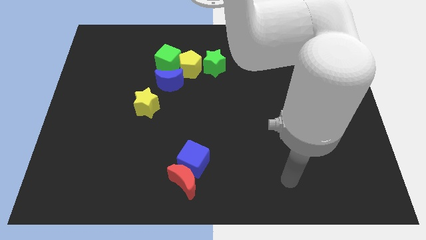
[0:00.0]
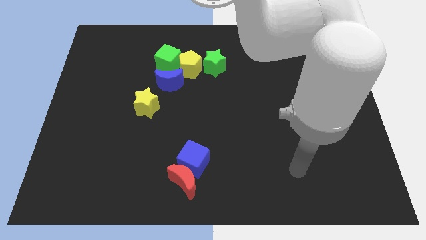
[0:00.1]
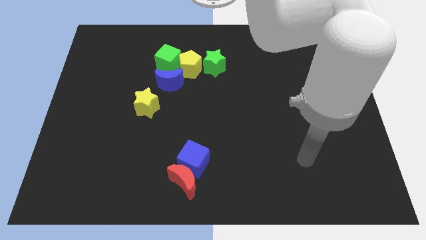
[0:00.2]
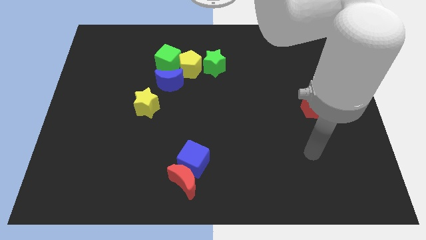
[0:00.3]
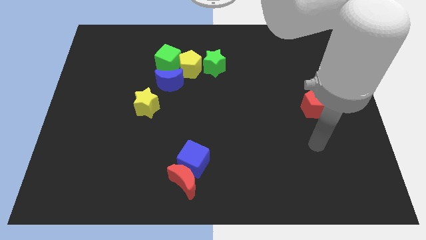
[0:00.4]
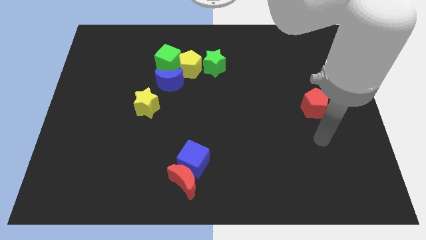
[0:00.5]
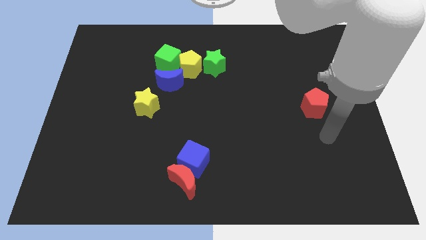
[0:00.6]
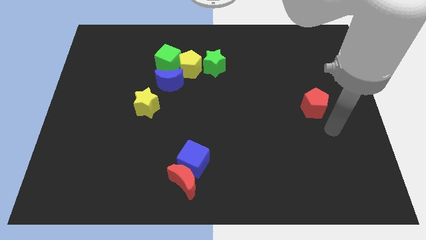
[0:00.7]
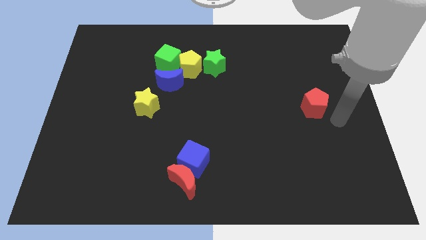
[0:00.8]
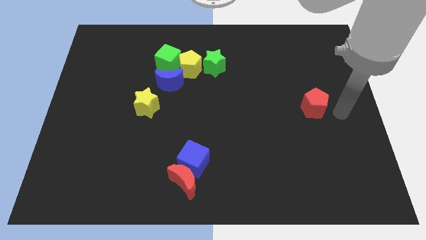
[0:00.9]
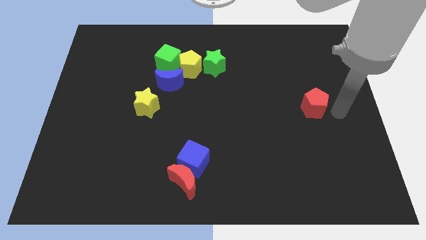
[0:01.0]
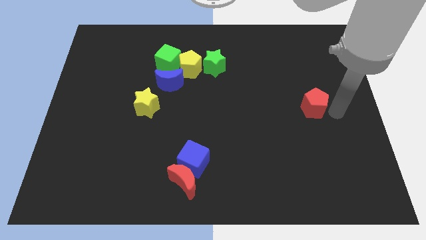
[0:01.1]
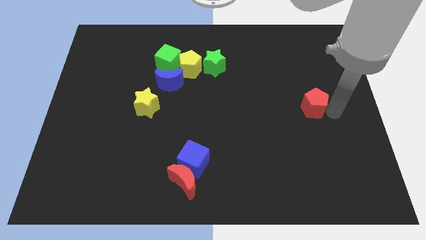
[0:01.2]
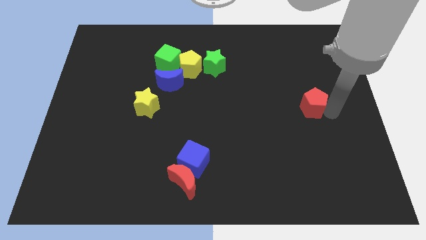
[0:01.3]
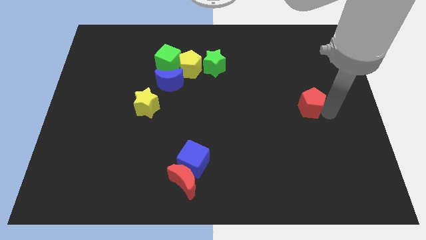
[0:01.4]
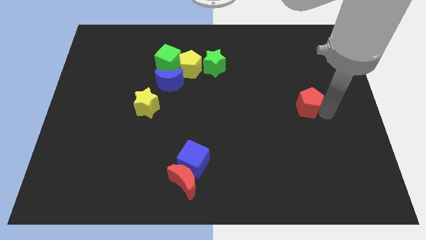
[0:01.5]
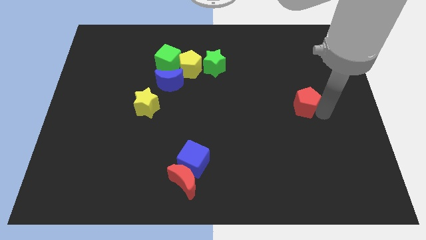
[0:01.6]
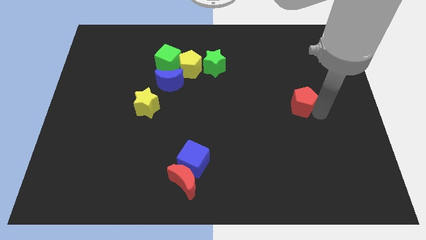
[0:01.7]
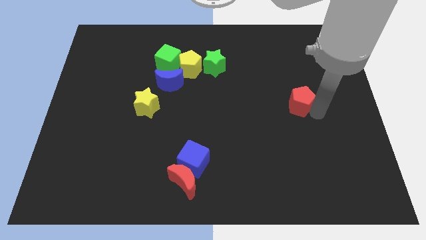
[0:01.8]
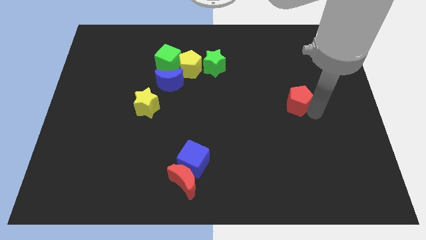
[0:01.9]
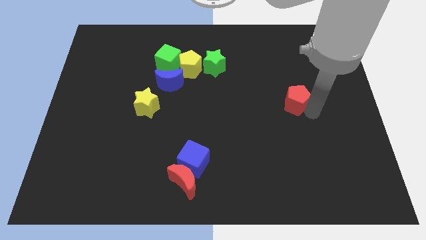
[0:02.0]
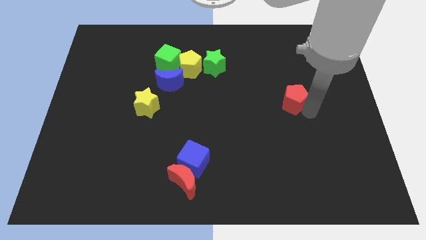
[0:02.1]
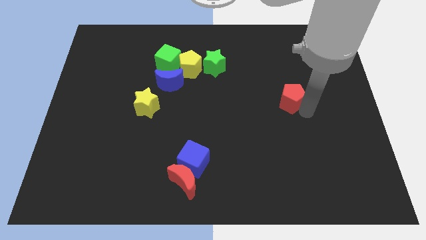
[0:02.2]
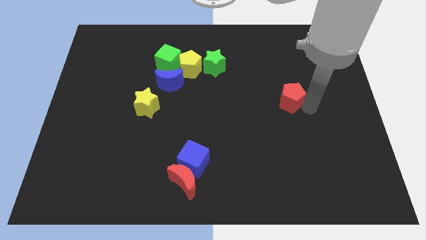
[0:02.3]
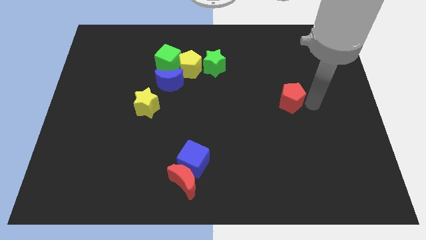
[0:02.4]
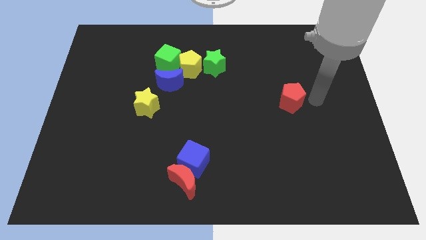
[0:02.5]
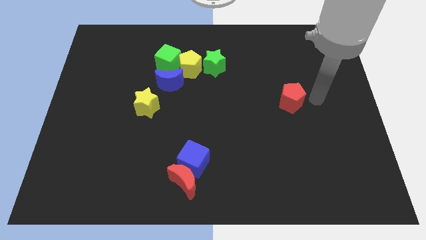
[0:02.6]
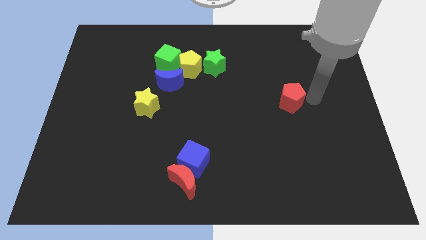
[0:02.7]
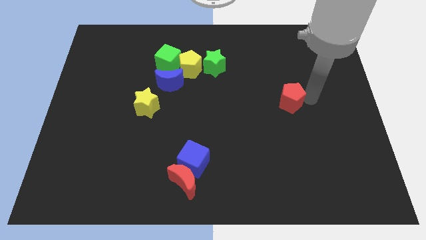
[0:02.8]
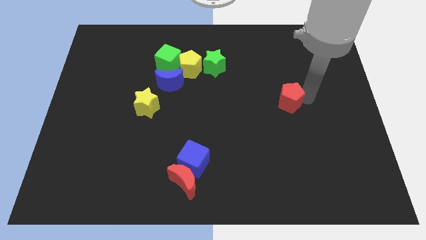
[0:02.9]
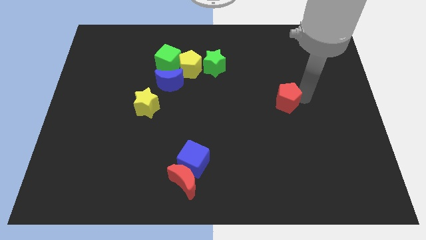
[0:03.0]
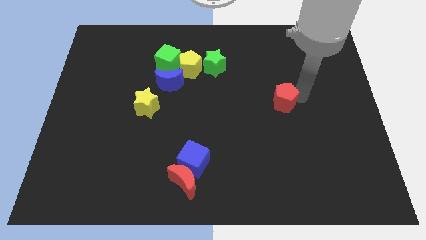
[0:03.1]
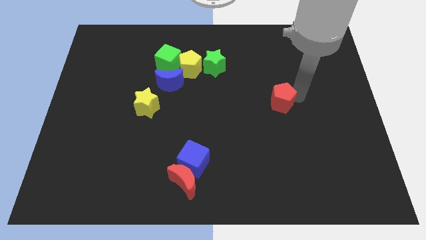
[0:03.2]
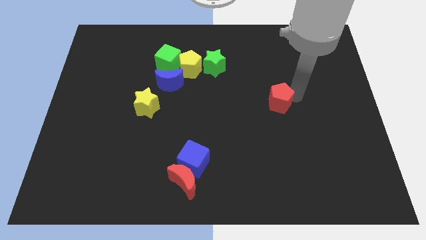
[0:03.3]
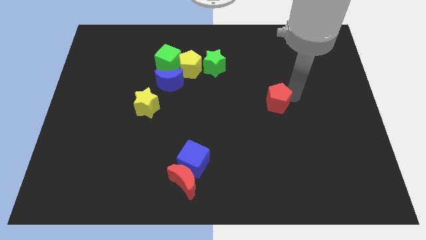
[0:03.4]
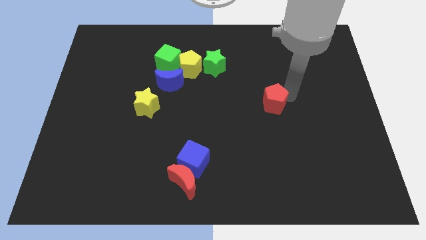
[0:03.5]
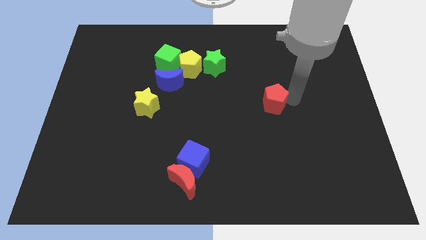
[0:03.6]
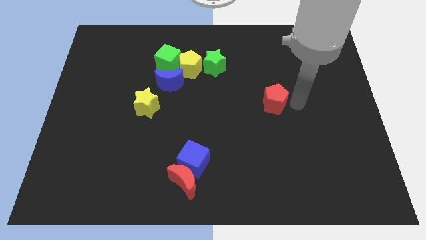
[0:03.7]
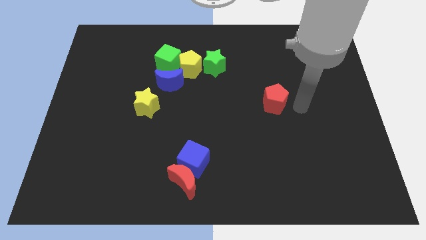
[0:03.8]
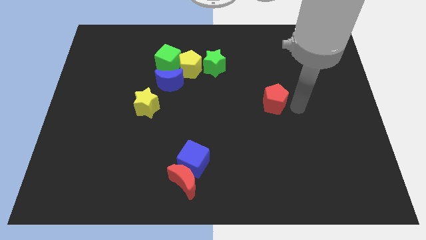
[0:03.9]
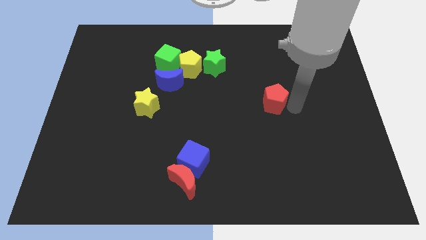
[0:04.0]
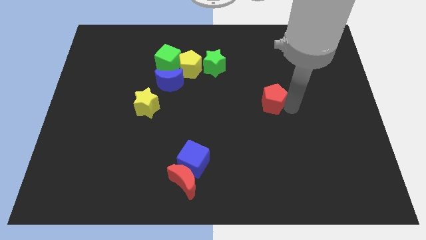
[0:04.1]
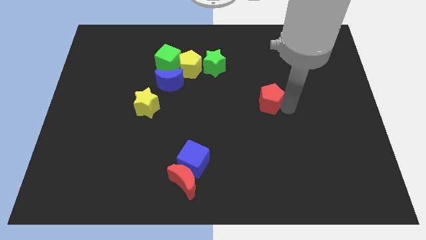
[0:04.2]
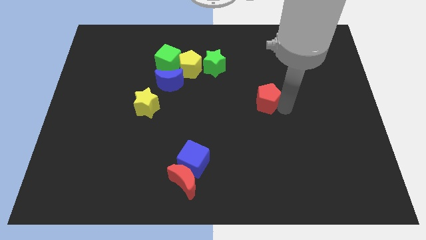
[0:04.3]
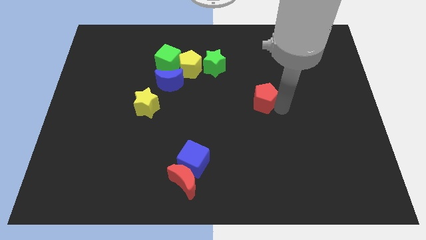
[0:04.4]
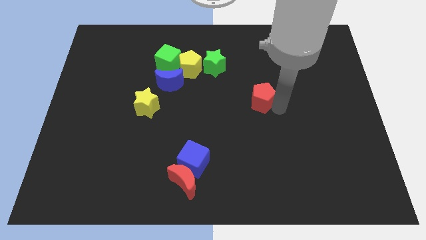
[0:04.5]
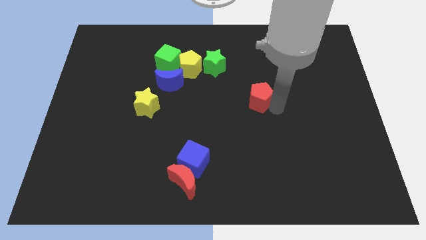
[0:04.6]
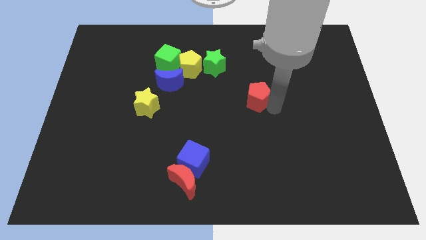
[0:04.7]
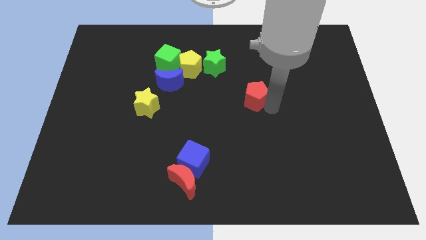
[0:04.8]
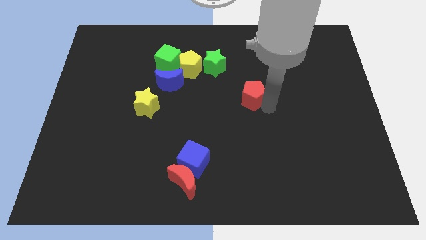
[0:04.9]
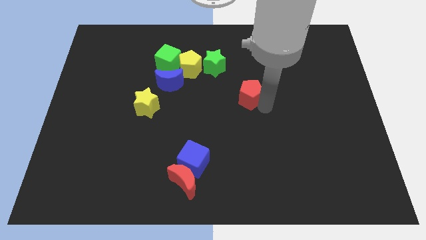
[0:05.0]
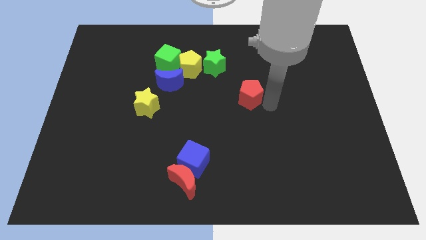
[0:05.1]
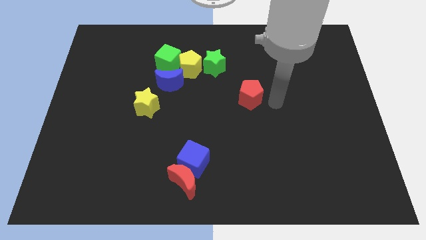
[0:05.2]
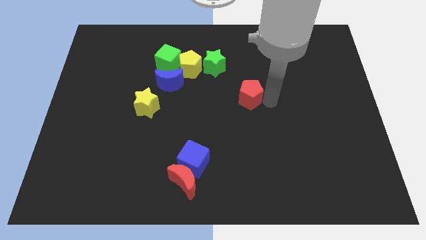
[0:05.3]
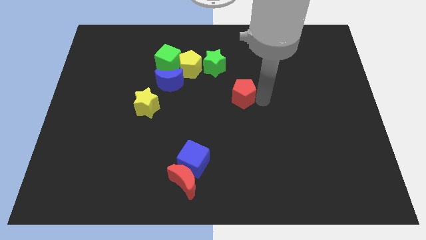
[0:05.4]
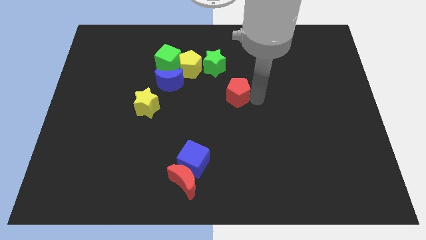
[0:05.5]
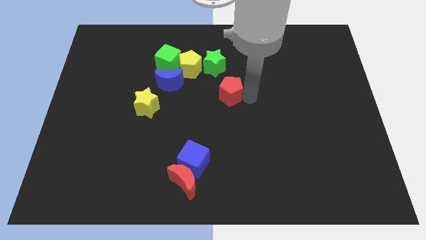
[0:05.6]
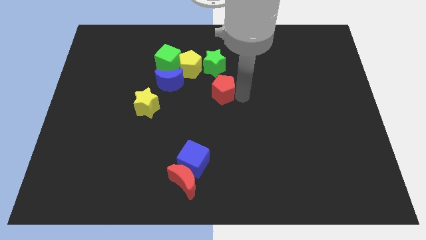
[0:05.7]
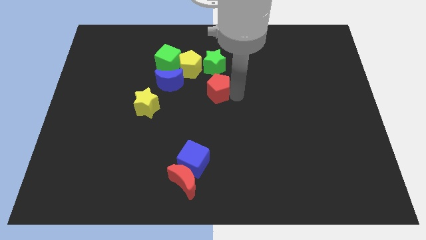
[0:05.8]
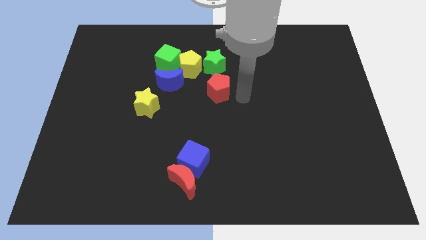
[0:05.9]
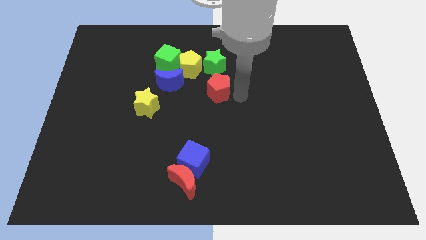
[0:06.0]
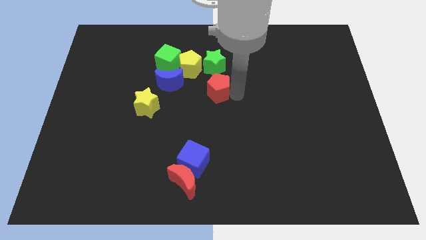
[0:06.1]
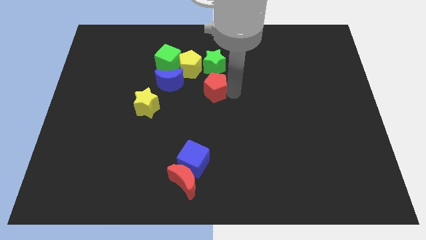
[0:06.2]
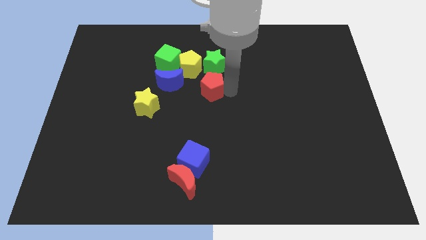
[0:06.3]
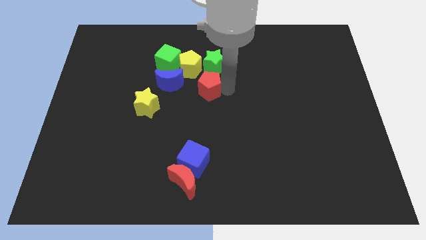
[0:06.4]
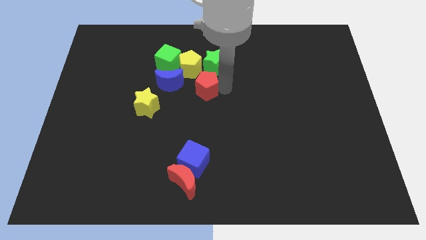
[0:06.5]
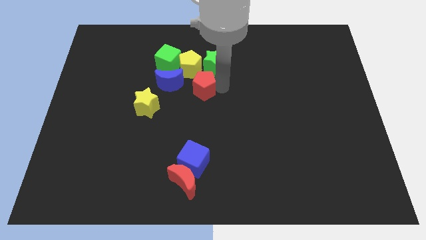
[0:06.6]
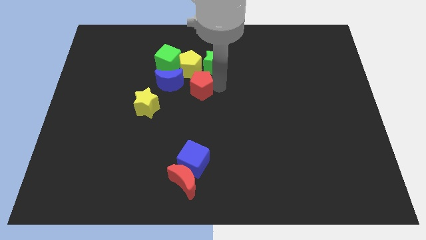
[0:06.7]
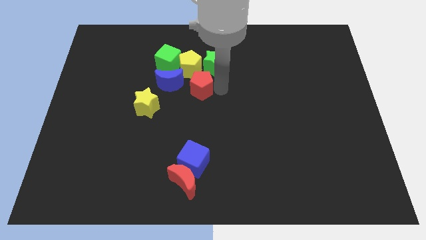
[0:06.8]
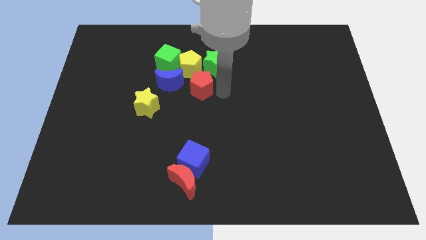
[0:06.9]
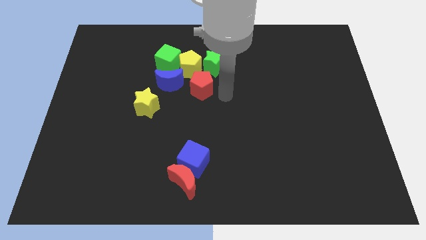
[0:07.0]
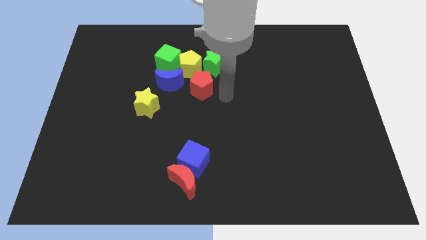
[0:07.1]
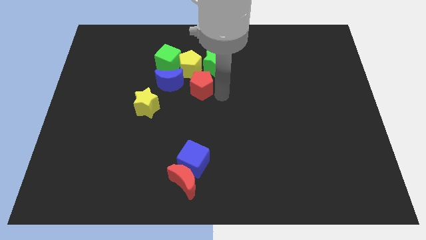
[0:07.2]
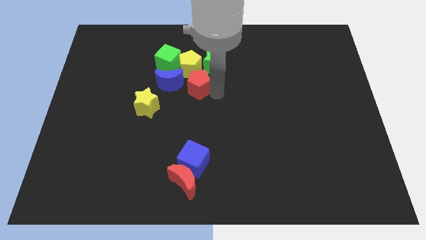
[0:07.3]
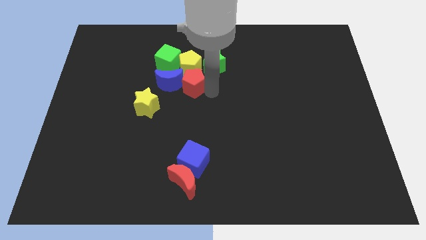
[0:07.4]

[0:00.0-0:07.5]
put the red pentagon towards the blue moon
